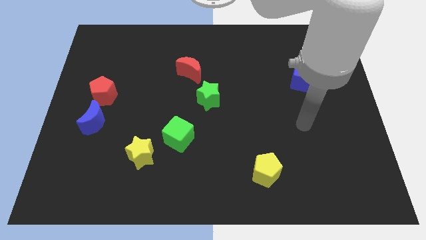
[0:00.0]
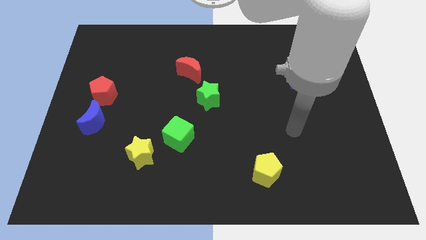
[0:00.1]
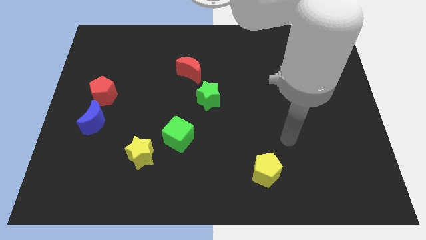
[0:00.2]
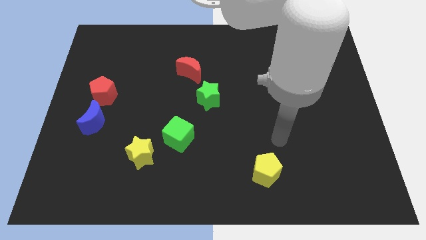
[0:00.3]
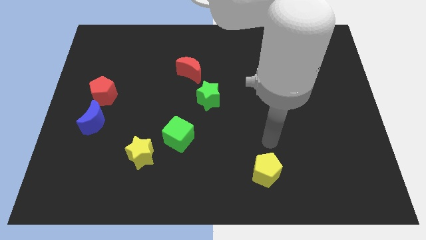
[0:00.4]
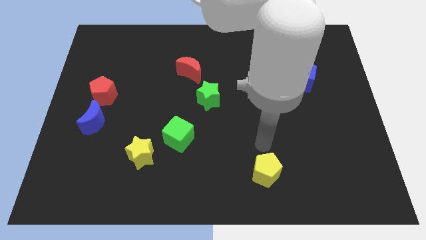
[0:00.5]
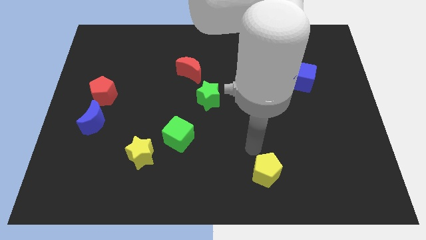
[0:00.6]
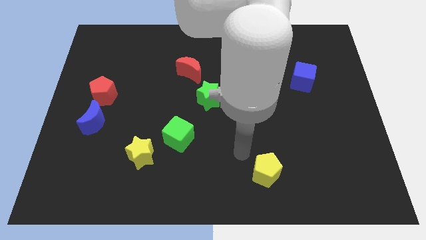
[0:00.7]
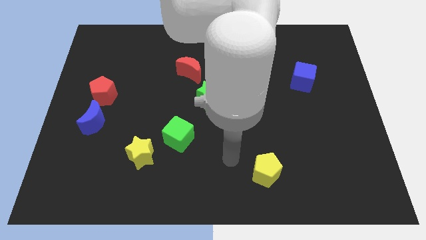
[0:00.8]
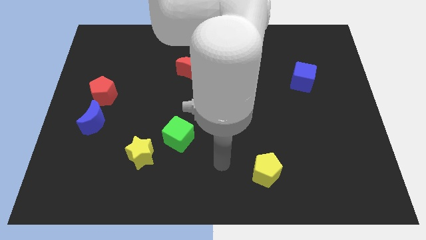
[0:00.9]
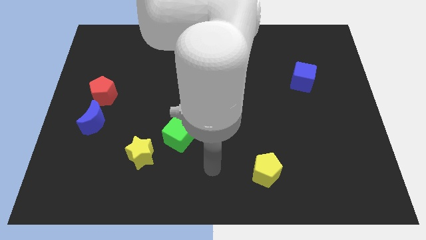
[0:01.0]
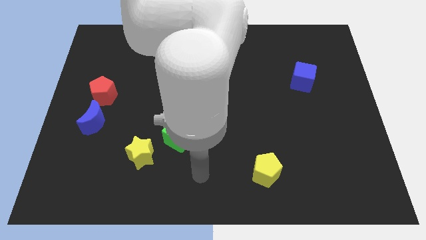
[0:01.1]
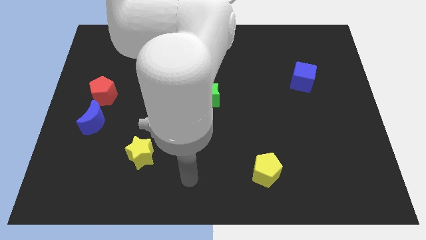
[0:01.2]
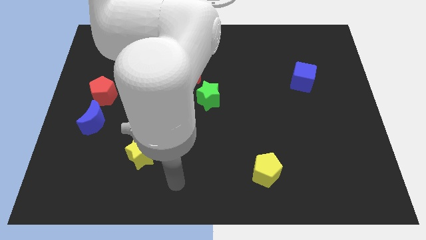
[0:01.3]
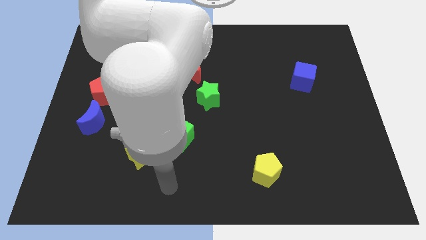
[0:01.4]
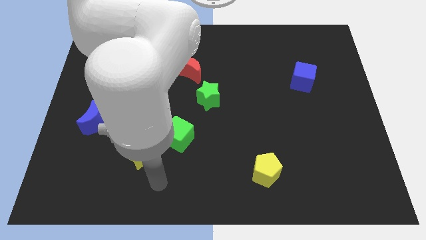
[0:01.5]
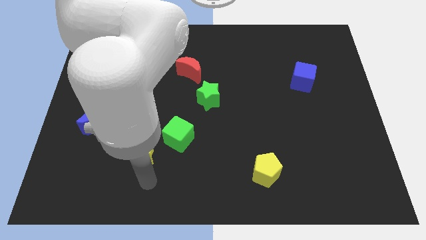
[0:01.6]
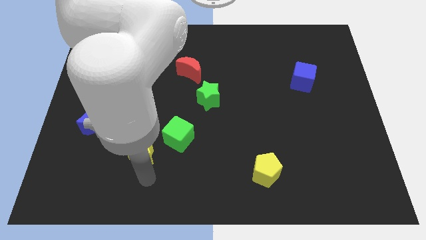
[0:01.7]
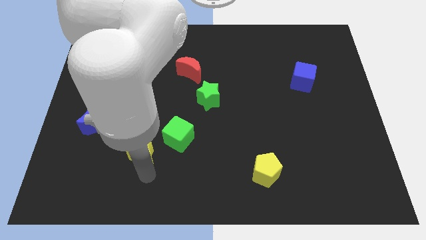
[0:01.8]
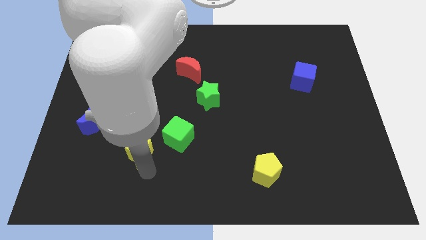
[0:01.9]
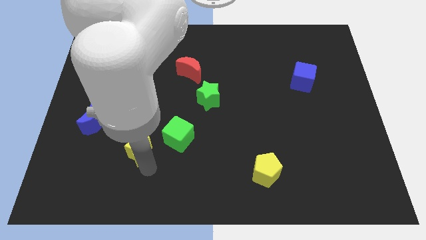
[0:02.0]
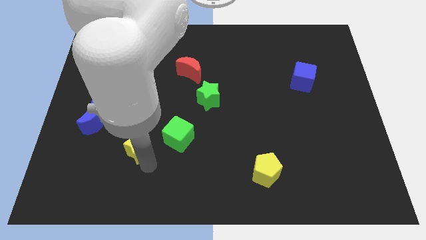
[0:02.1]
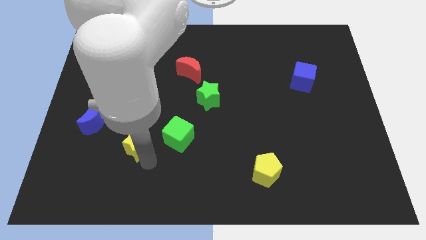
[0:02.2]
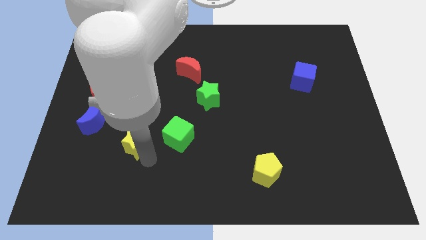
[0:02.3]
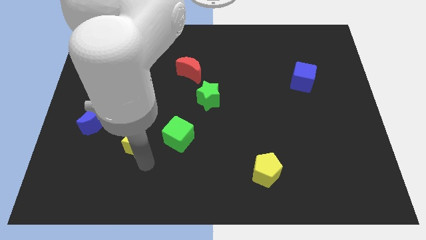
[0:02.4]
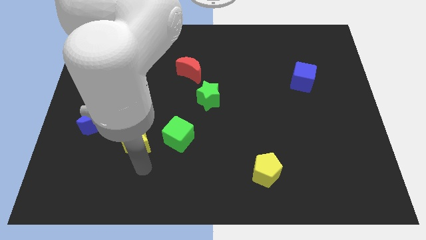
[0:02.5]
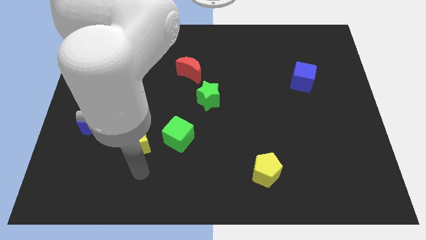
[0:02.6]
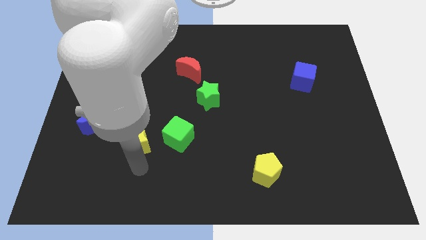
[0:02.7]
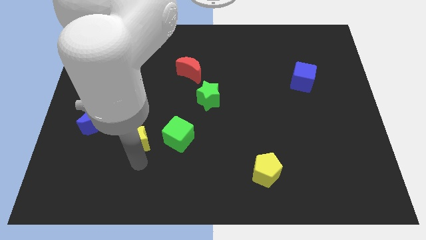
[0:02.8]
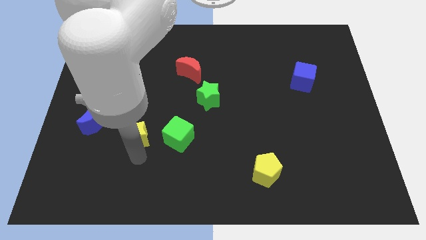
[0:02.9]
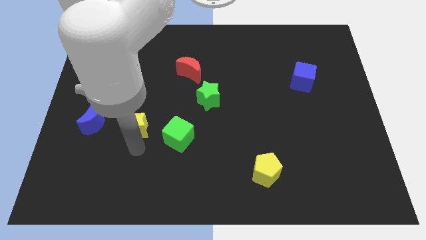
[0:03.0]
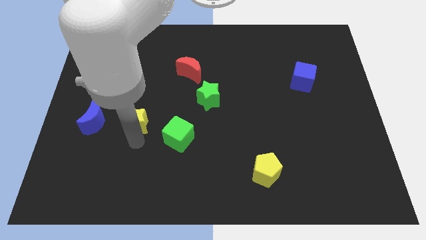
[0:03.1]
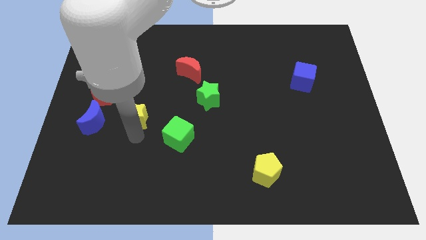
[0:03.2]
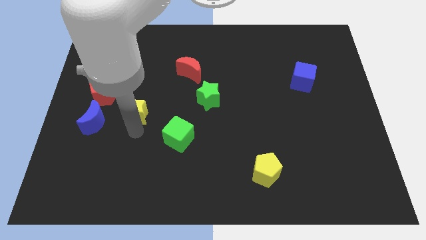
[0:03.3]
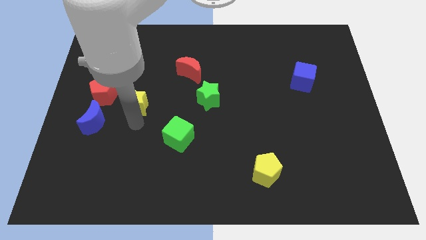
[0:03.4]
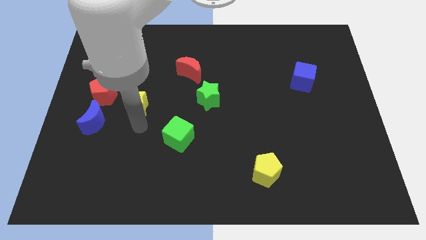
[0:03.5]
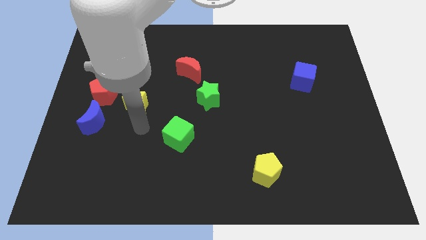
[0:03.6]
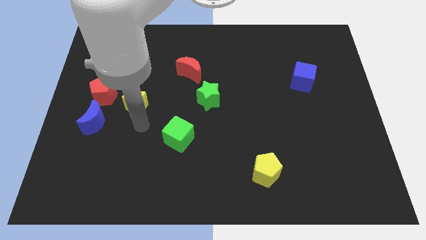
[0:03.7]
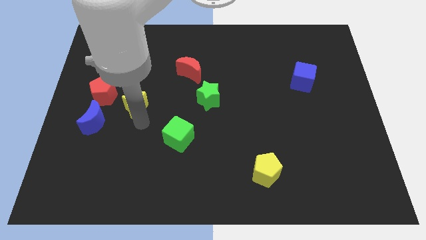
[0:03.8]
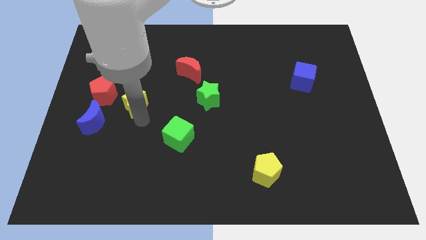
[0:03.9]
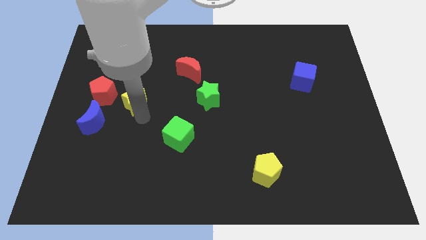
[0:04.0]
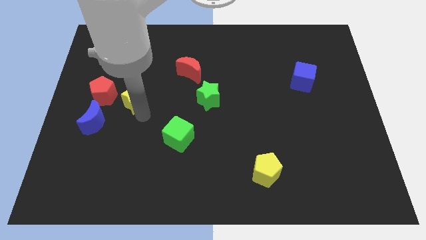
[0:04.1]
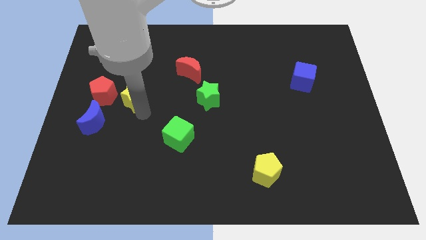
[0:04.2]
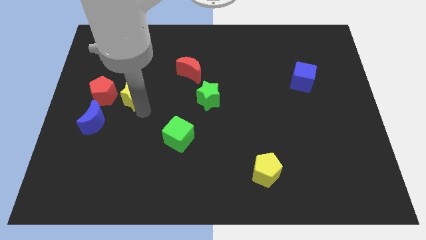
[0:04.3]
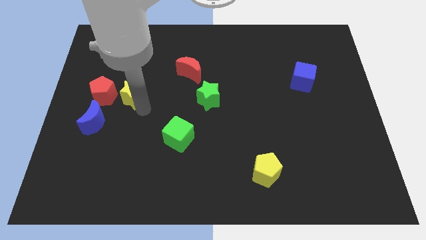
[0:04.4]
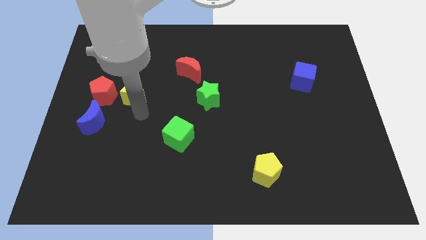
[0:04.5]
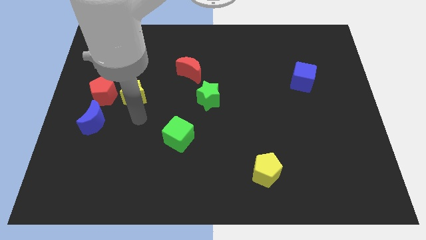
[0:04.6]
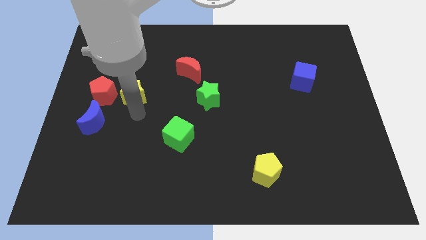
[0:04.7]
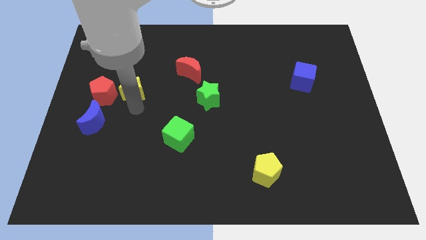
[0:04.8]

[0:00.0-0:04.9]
move the yellow star to the top right side of the red pentagon

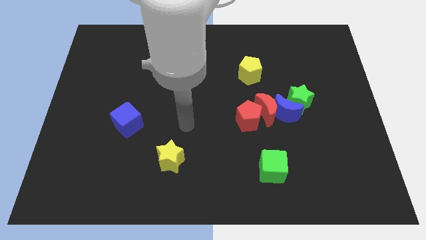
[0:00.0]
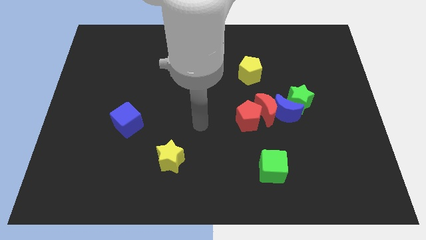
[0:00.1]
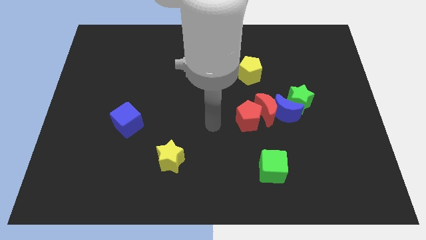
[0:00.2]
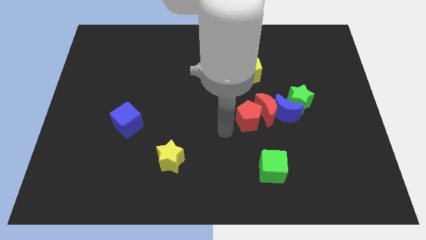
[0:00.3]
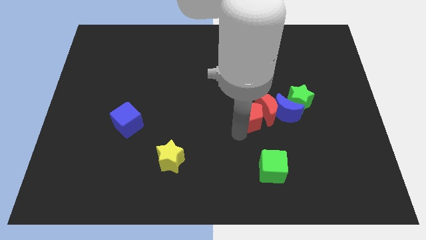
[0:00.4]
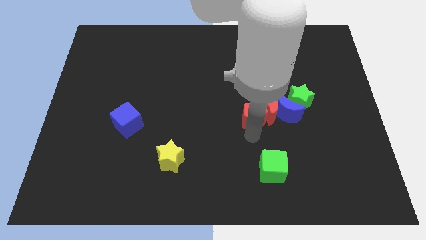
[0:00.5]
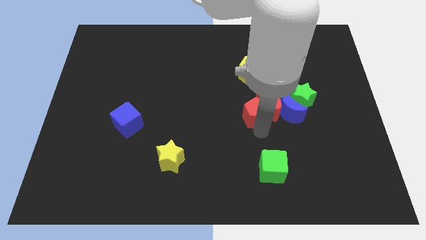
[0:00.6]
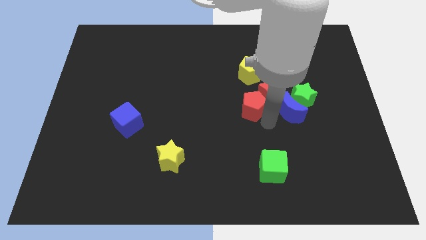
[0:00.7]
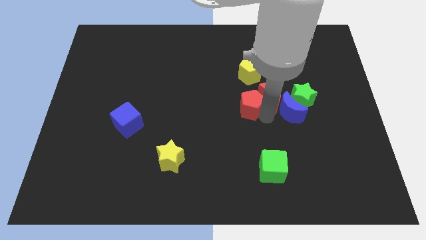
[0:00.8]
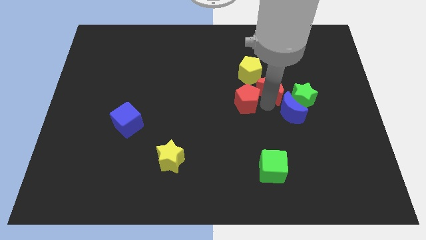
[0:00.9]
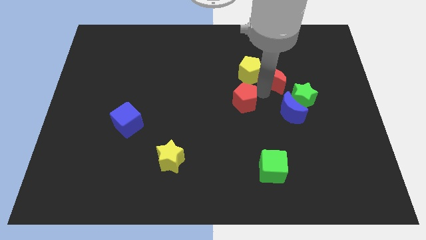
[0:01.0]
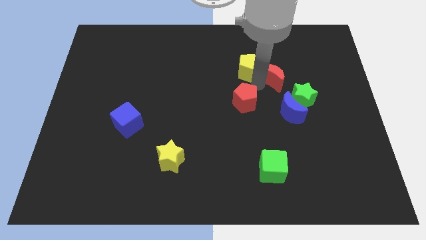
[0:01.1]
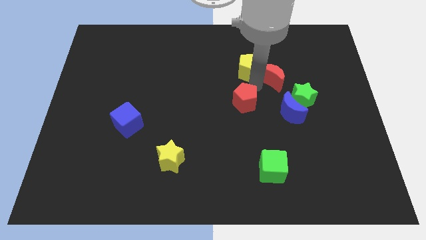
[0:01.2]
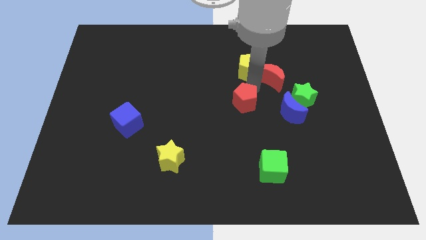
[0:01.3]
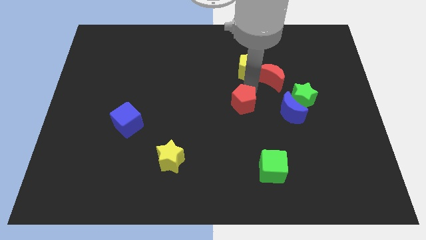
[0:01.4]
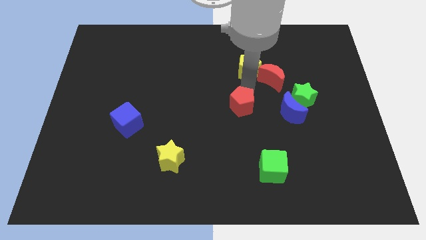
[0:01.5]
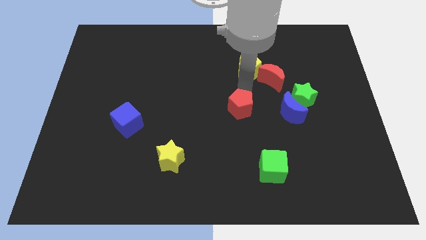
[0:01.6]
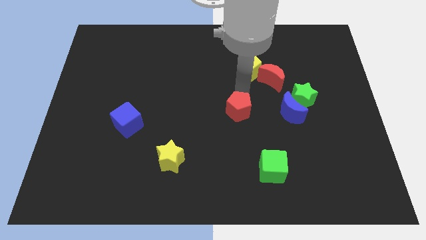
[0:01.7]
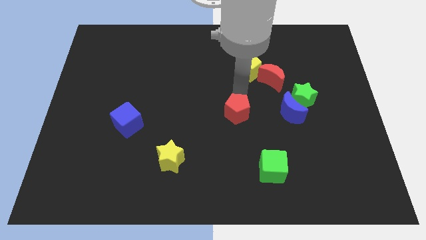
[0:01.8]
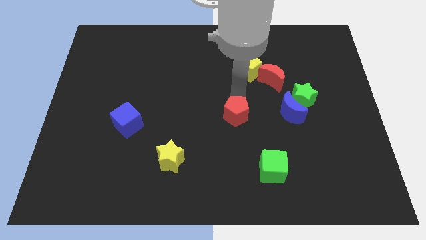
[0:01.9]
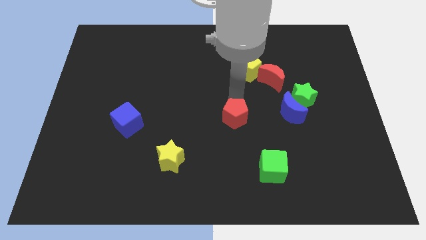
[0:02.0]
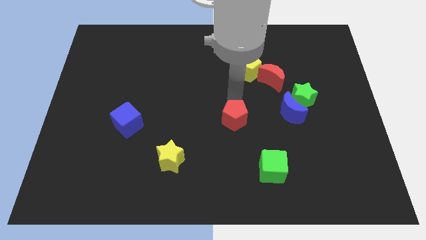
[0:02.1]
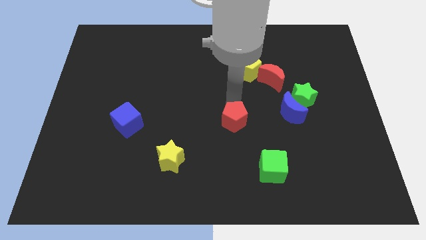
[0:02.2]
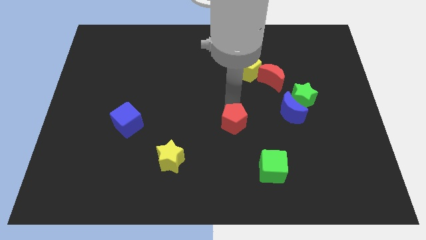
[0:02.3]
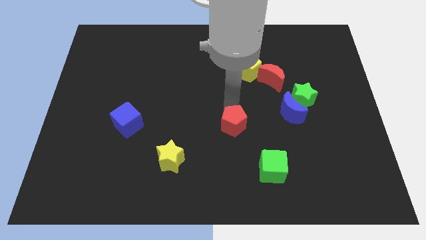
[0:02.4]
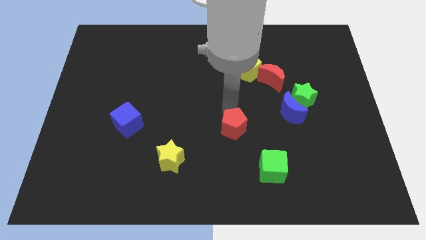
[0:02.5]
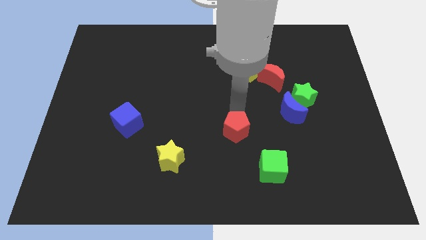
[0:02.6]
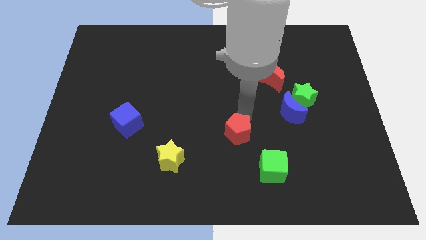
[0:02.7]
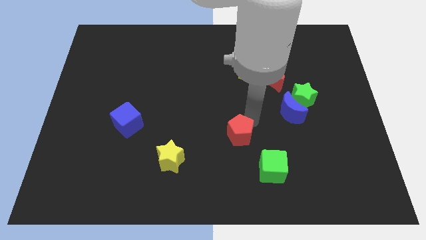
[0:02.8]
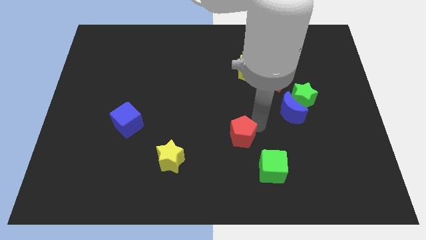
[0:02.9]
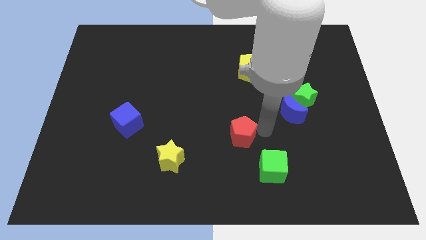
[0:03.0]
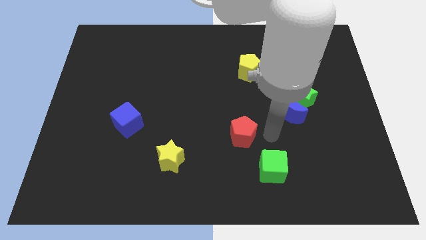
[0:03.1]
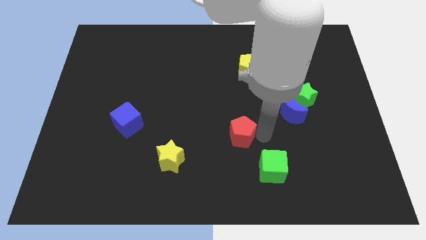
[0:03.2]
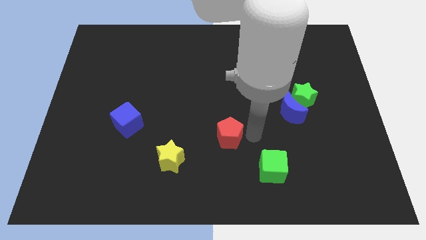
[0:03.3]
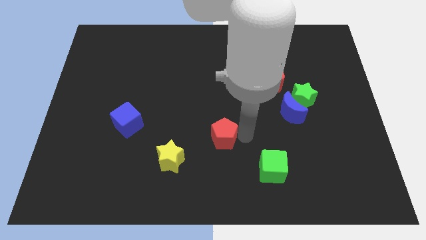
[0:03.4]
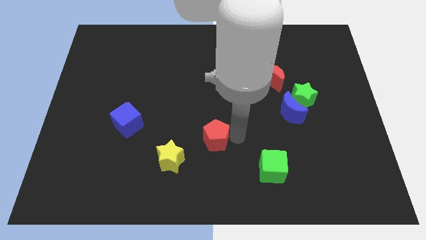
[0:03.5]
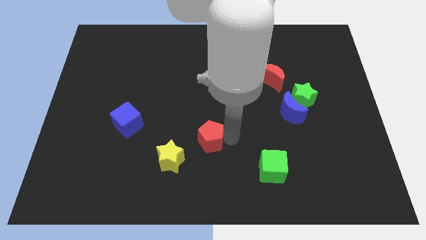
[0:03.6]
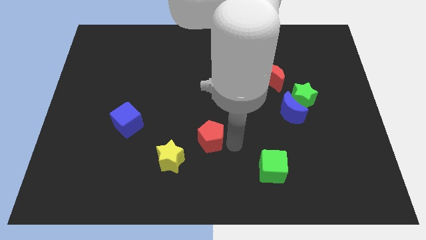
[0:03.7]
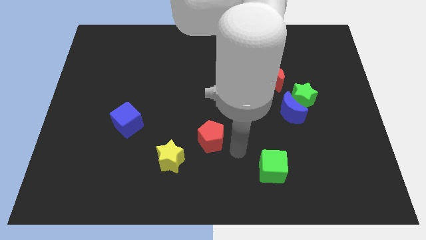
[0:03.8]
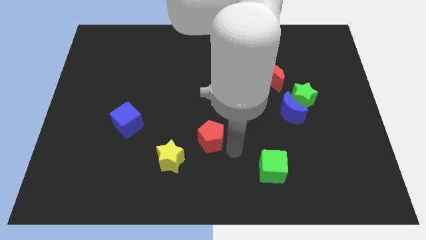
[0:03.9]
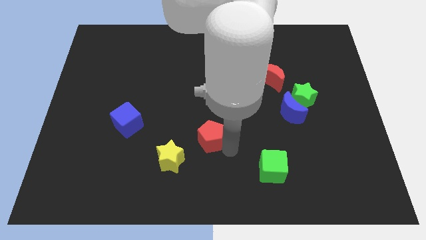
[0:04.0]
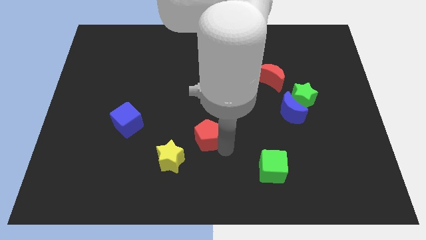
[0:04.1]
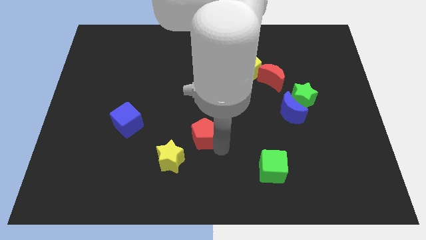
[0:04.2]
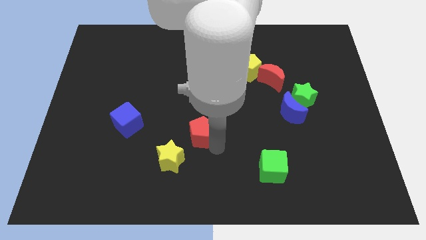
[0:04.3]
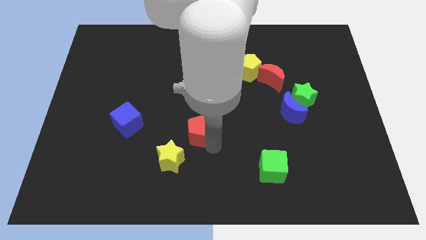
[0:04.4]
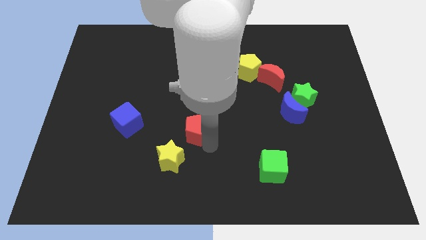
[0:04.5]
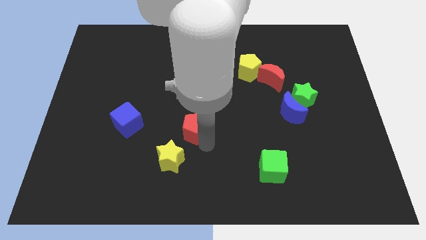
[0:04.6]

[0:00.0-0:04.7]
move the red pentagon just right of the blue cube
